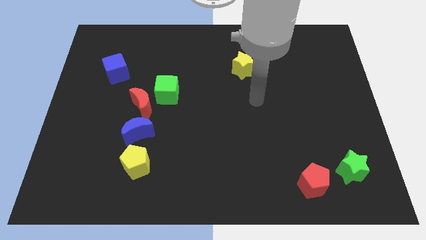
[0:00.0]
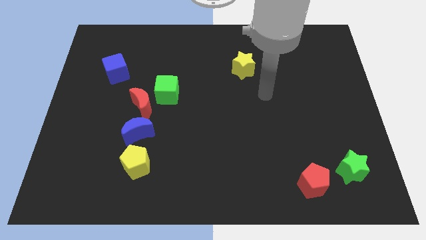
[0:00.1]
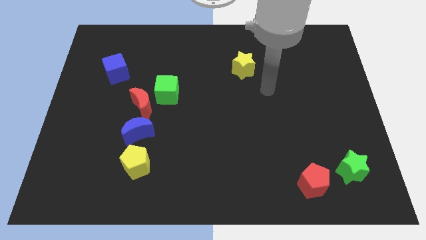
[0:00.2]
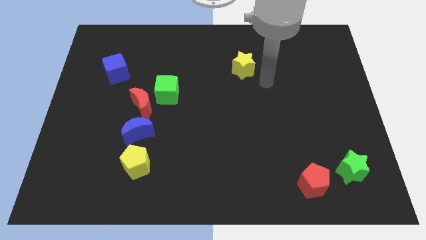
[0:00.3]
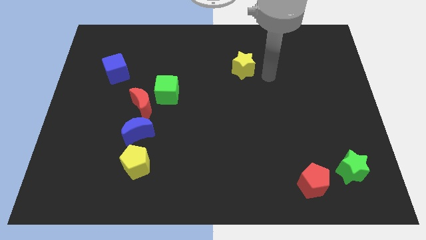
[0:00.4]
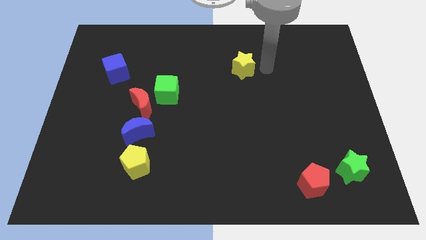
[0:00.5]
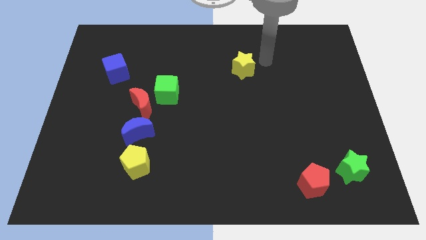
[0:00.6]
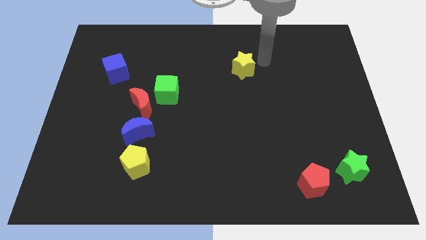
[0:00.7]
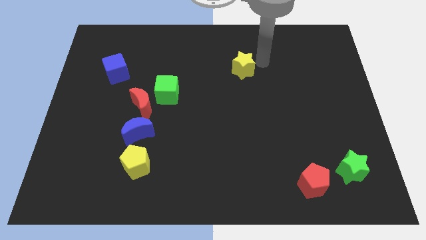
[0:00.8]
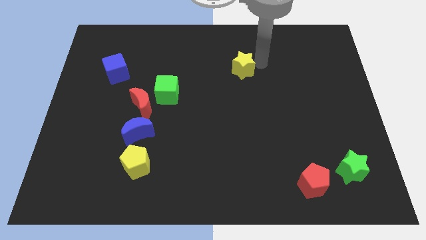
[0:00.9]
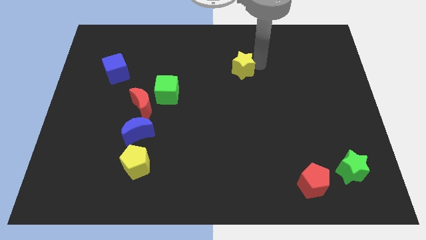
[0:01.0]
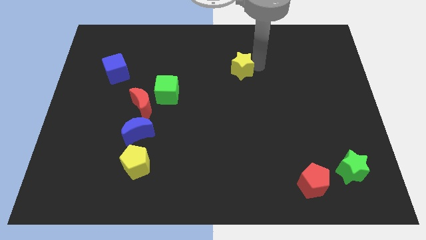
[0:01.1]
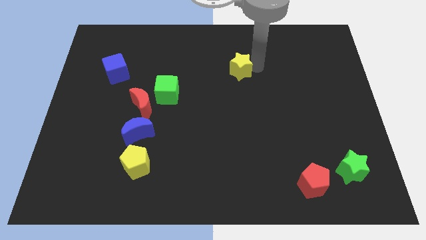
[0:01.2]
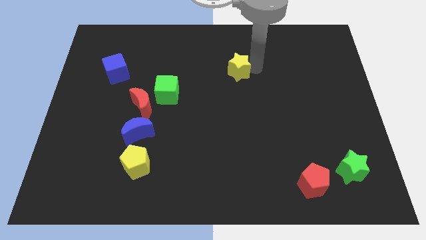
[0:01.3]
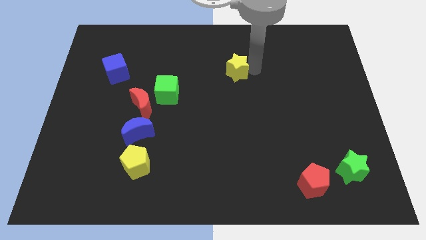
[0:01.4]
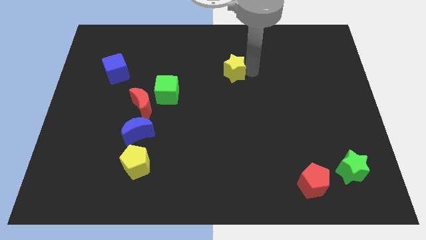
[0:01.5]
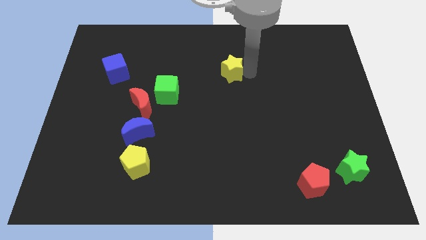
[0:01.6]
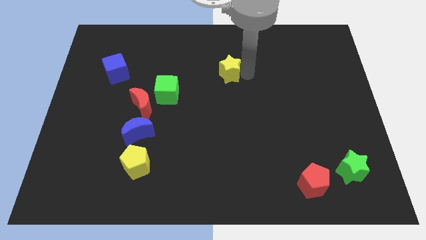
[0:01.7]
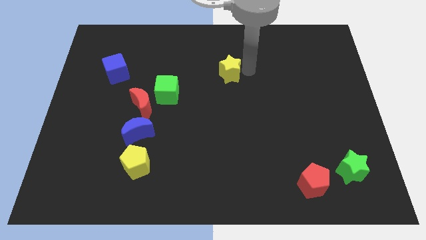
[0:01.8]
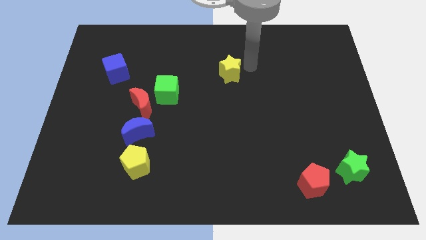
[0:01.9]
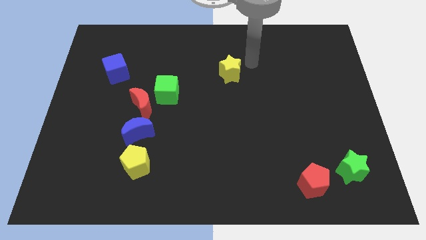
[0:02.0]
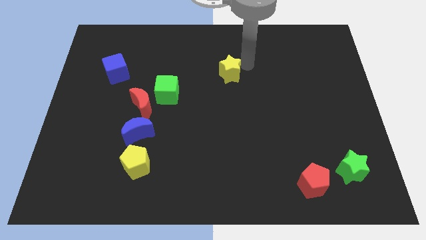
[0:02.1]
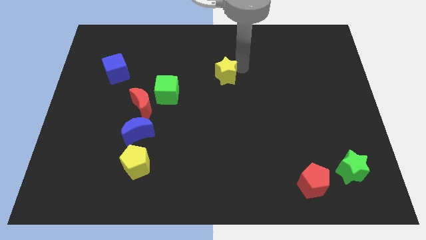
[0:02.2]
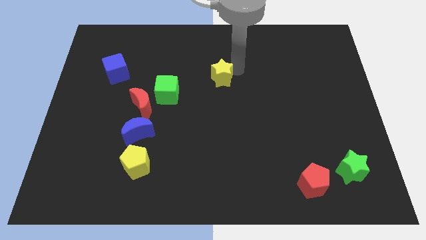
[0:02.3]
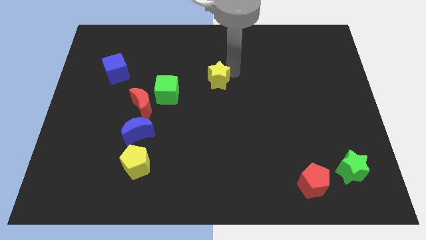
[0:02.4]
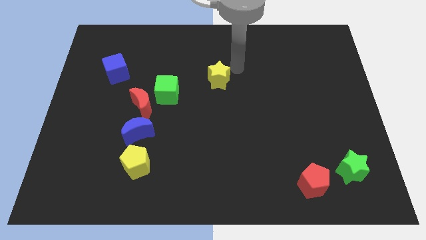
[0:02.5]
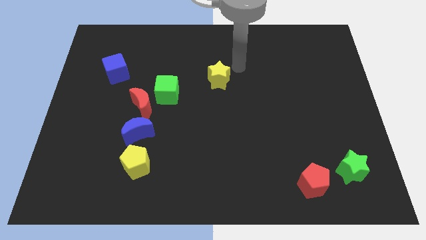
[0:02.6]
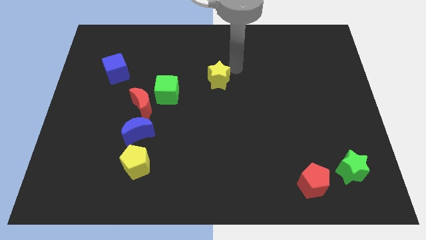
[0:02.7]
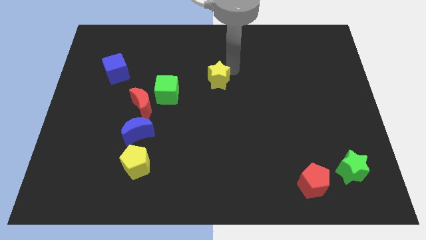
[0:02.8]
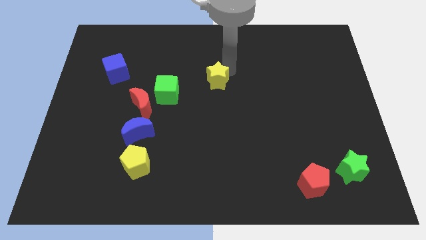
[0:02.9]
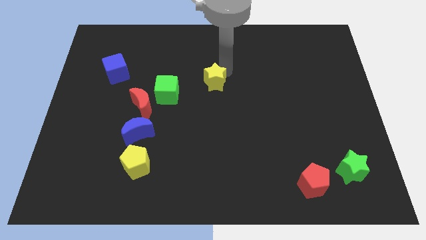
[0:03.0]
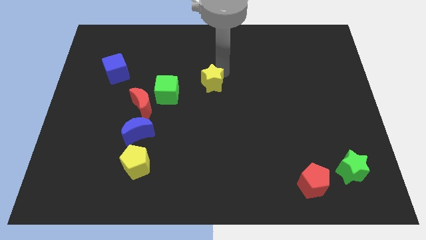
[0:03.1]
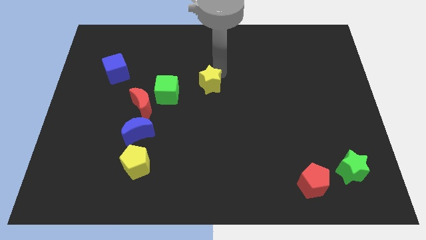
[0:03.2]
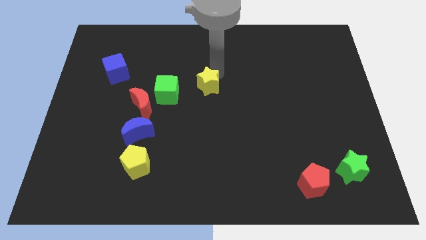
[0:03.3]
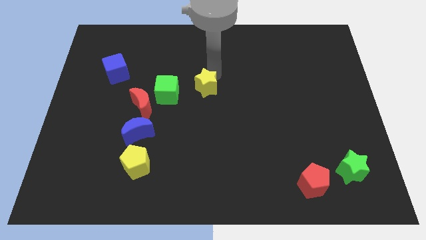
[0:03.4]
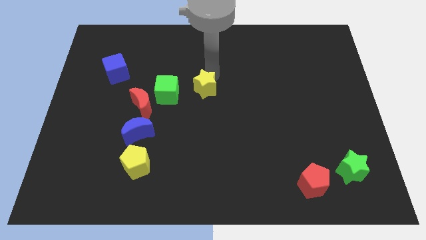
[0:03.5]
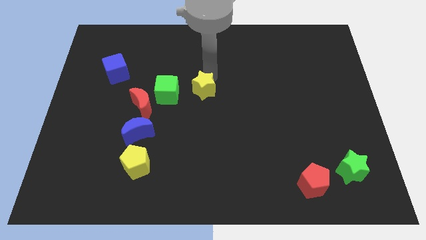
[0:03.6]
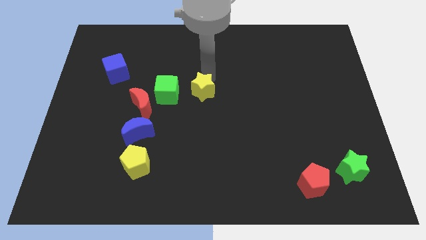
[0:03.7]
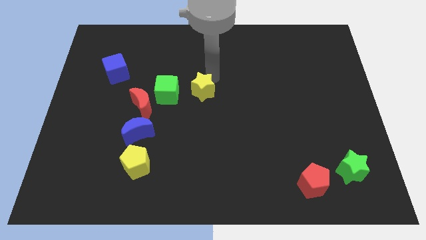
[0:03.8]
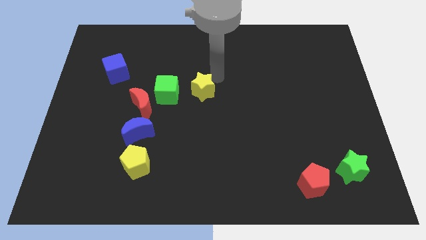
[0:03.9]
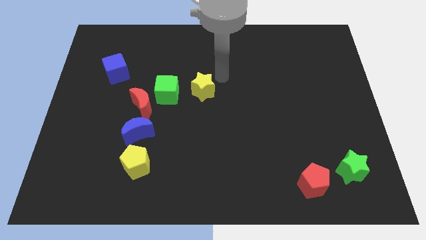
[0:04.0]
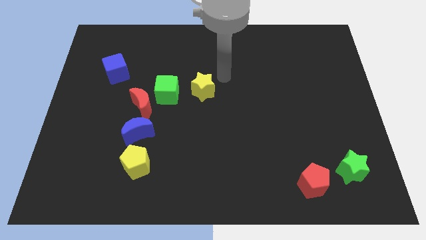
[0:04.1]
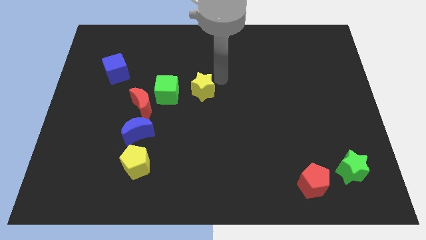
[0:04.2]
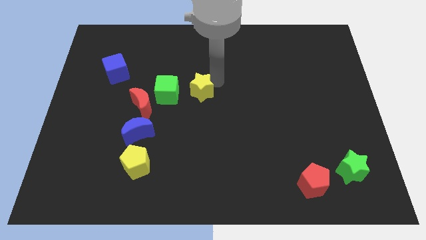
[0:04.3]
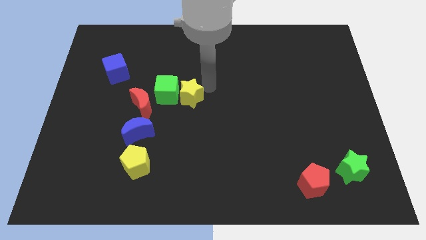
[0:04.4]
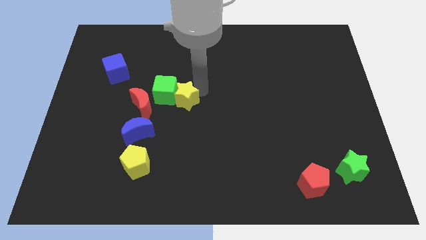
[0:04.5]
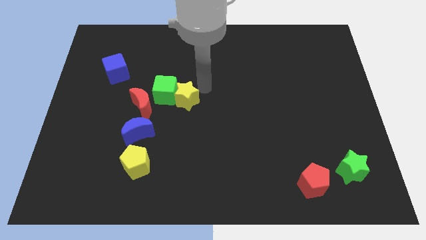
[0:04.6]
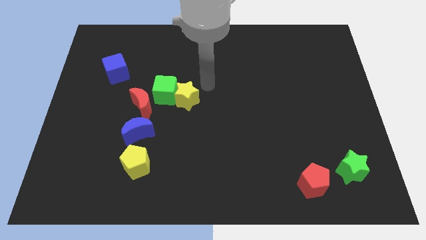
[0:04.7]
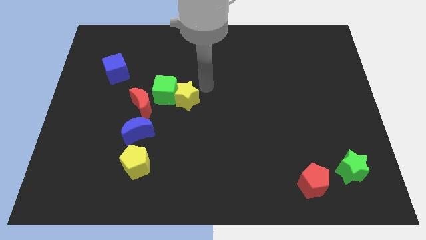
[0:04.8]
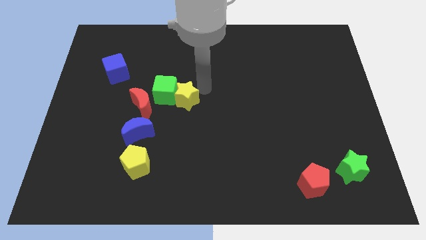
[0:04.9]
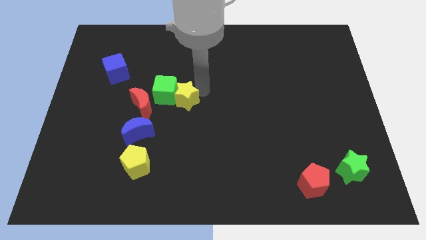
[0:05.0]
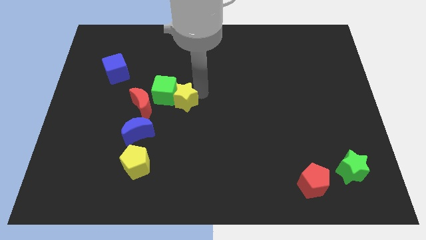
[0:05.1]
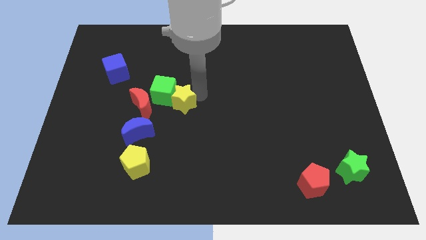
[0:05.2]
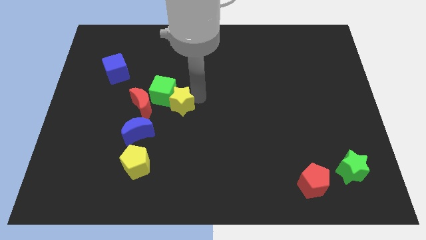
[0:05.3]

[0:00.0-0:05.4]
put the yellow star to the top right side of the blue moon

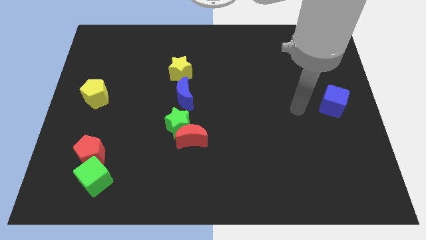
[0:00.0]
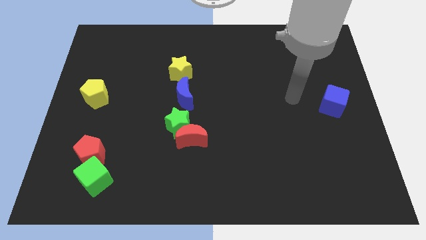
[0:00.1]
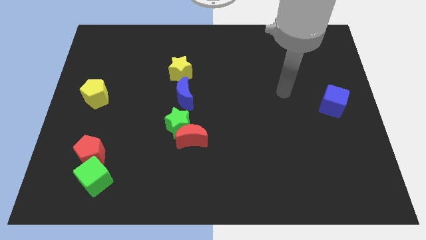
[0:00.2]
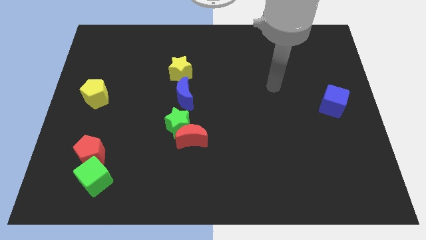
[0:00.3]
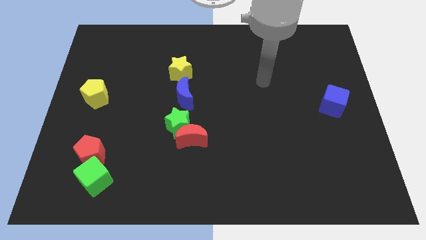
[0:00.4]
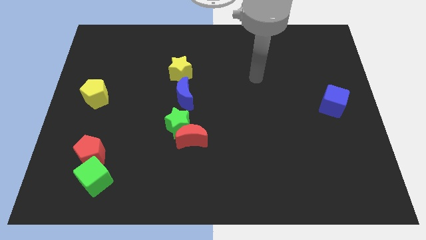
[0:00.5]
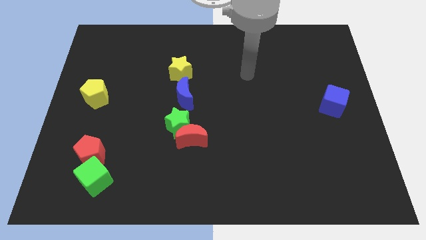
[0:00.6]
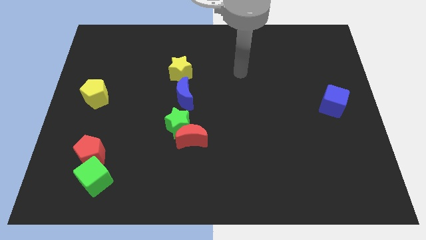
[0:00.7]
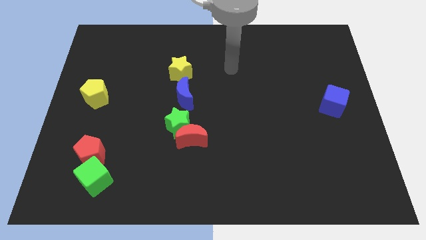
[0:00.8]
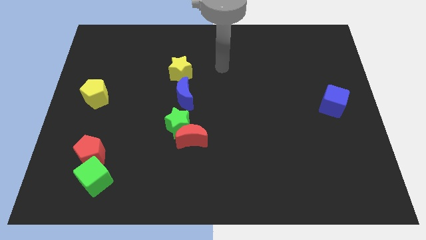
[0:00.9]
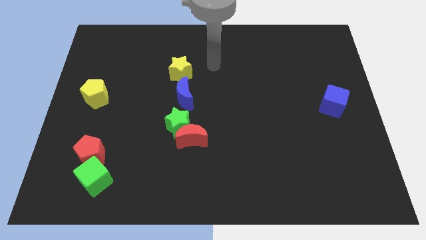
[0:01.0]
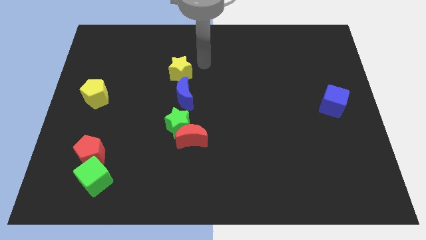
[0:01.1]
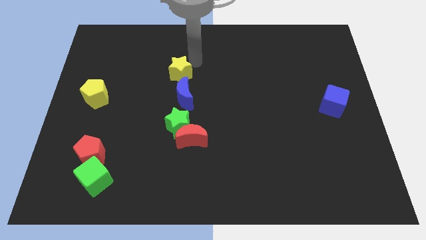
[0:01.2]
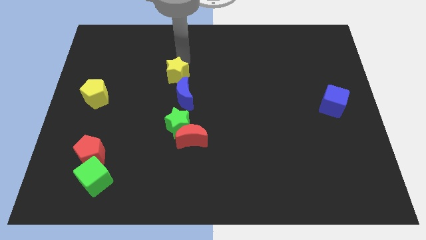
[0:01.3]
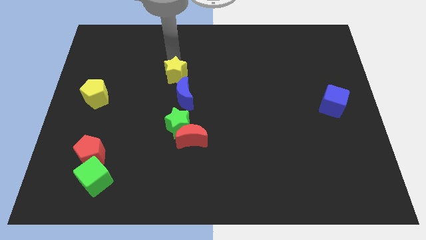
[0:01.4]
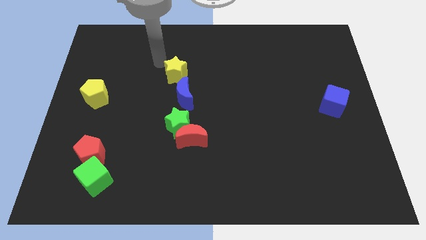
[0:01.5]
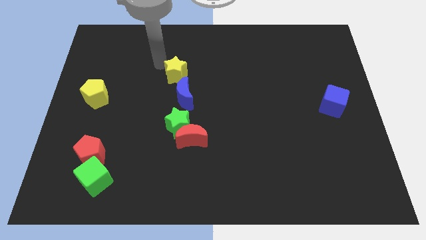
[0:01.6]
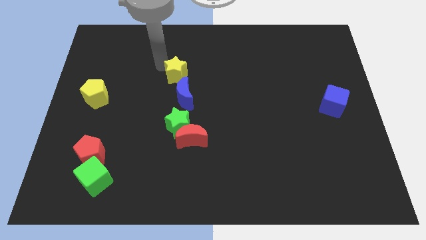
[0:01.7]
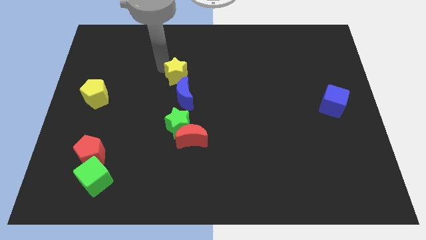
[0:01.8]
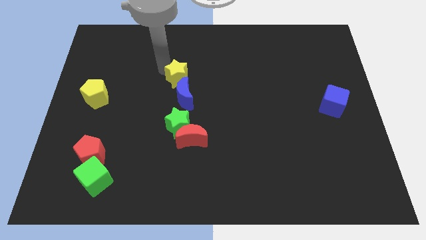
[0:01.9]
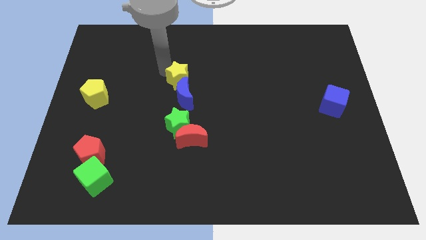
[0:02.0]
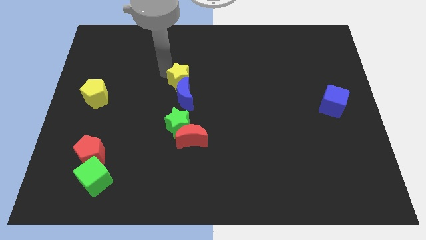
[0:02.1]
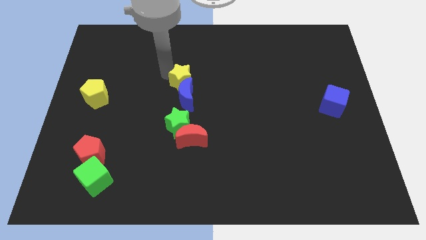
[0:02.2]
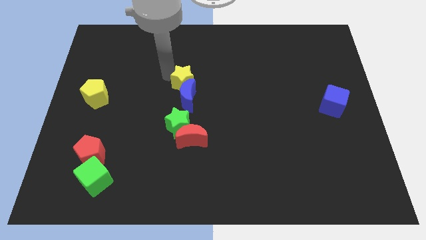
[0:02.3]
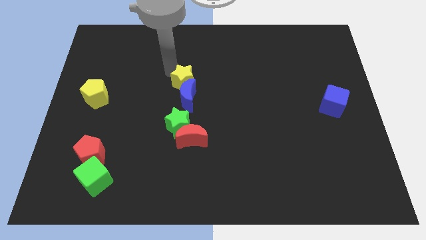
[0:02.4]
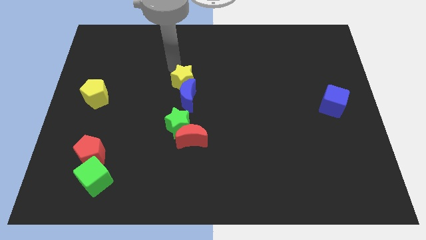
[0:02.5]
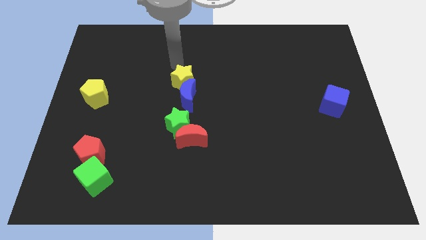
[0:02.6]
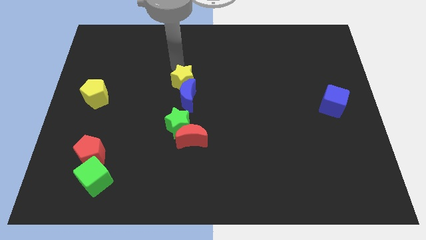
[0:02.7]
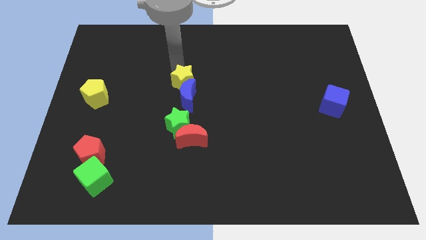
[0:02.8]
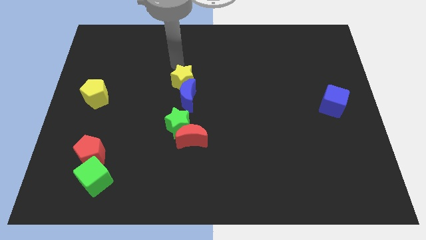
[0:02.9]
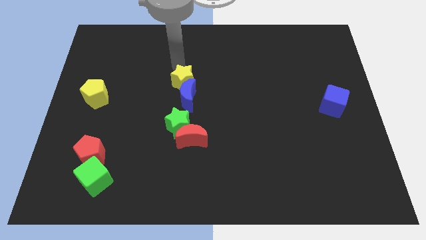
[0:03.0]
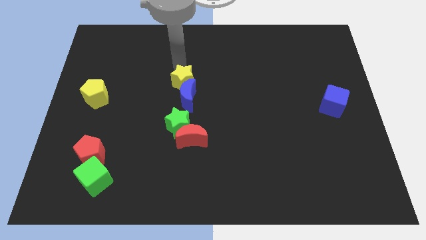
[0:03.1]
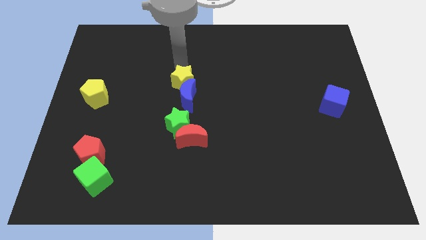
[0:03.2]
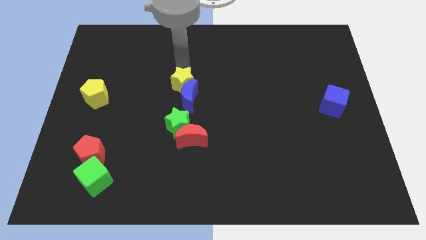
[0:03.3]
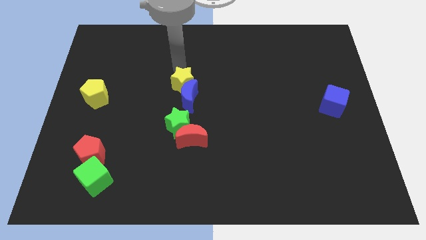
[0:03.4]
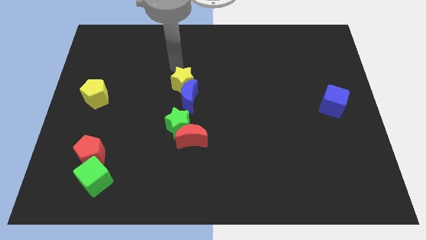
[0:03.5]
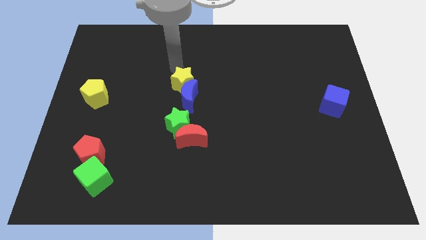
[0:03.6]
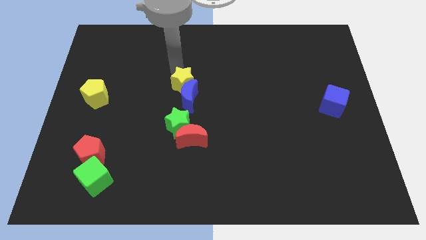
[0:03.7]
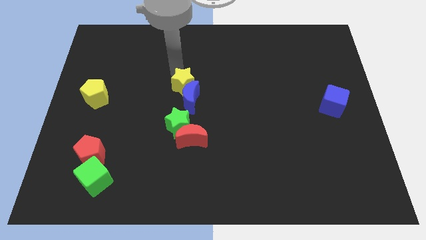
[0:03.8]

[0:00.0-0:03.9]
put the yellow star above the red moon
